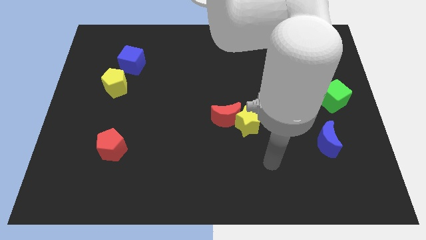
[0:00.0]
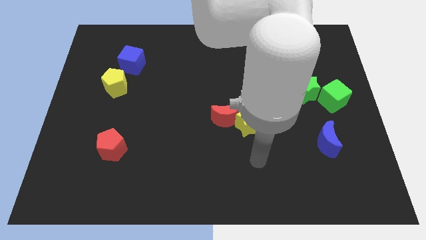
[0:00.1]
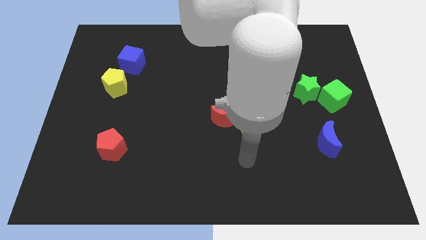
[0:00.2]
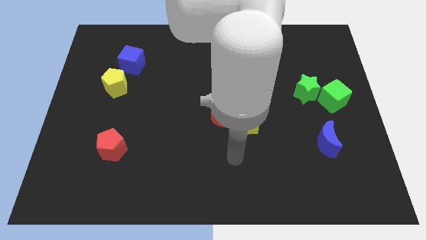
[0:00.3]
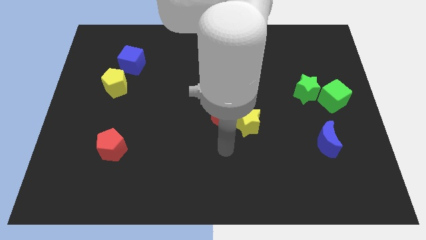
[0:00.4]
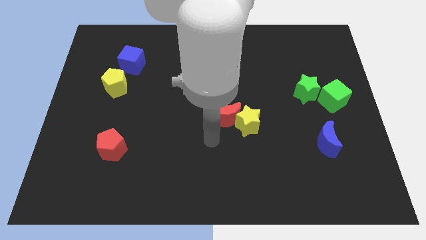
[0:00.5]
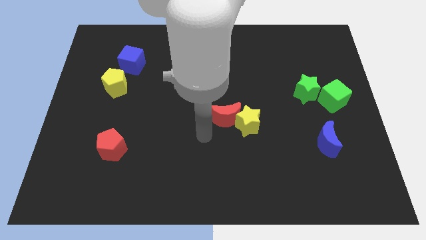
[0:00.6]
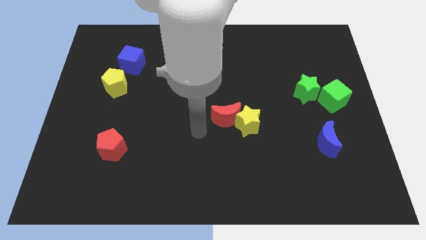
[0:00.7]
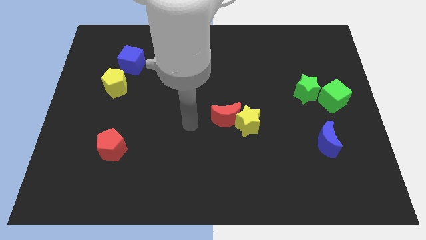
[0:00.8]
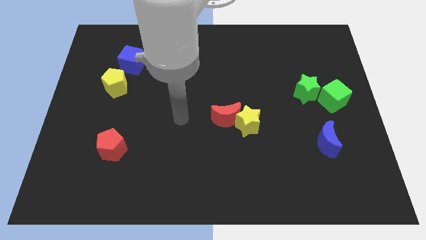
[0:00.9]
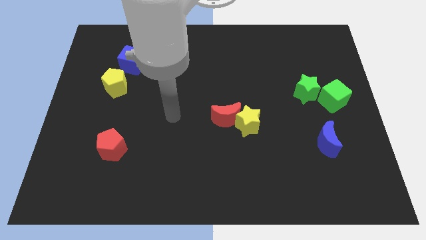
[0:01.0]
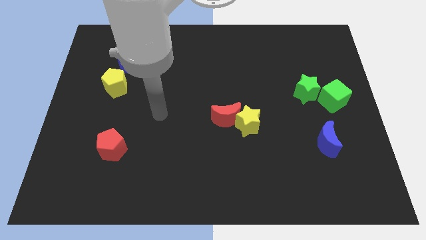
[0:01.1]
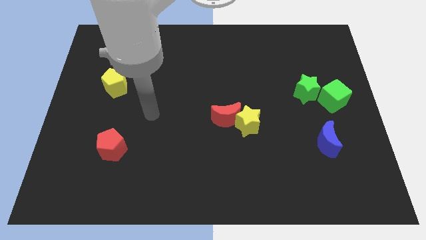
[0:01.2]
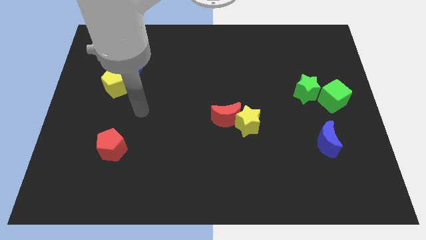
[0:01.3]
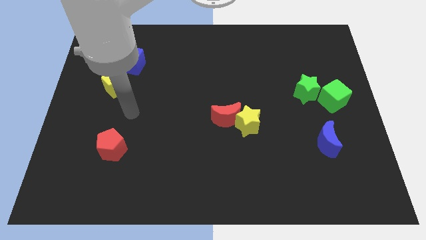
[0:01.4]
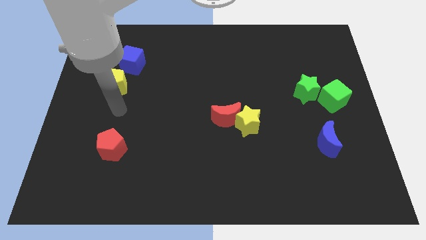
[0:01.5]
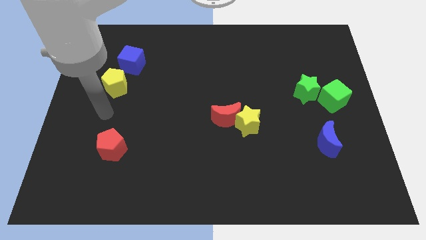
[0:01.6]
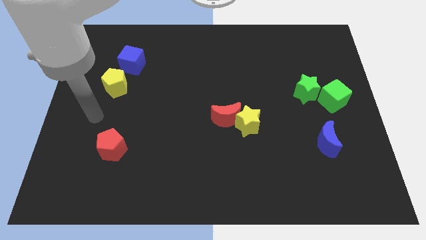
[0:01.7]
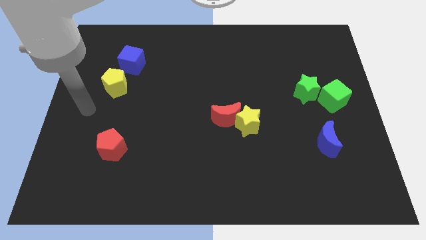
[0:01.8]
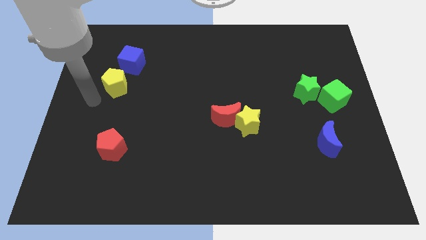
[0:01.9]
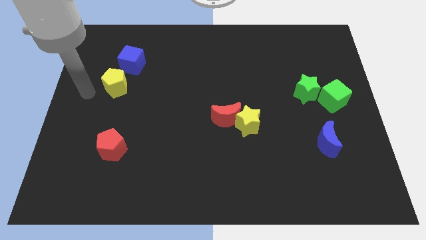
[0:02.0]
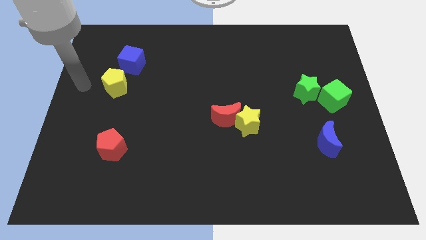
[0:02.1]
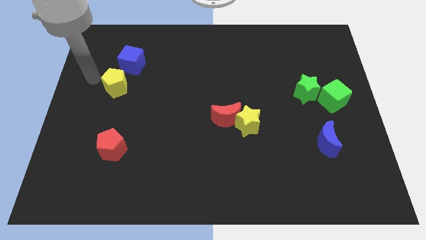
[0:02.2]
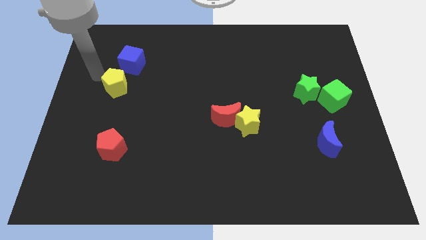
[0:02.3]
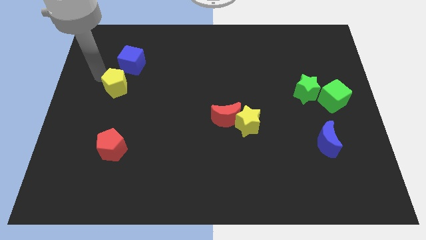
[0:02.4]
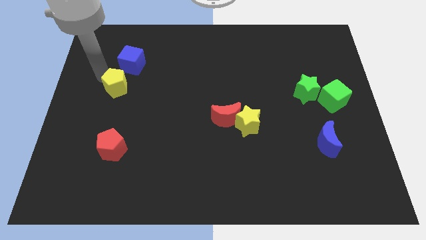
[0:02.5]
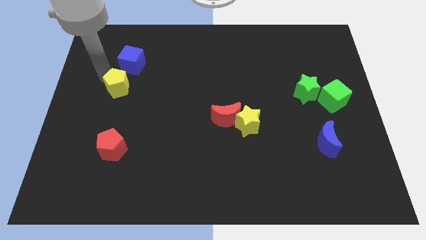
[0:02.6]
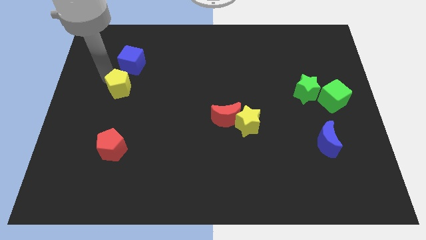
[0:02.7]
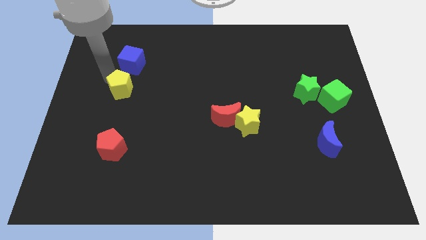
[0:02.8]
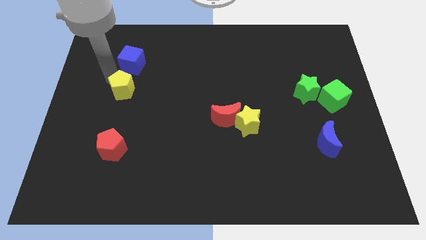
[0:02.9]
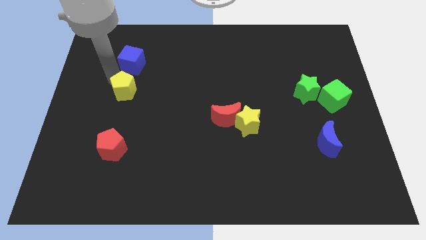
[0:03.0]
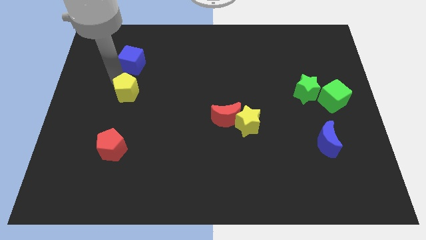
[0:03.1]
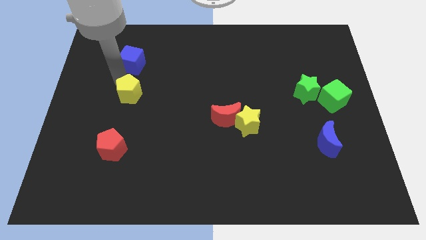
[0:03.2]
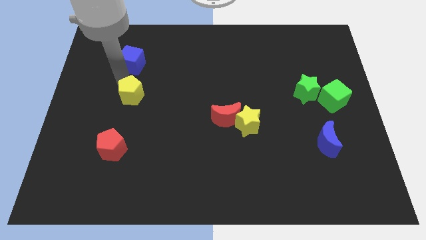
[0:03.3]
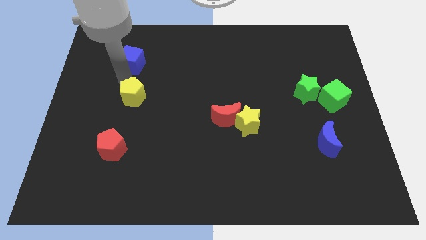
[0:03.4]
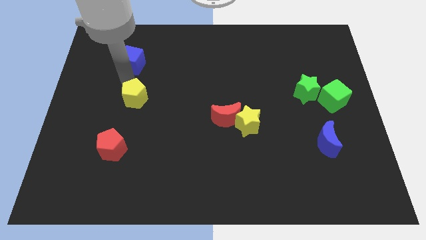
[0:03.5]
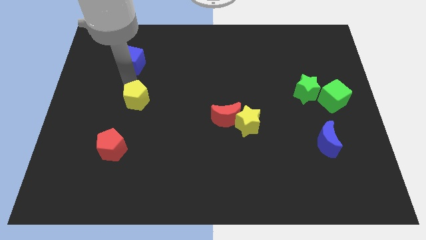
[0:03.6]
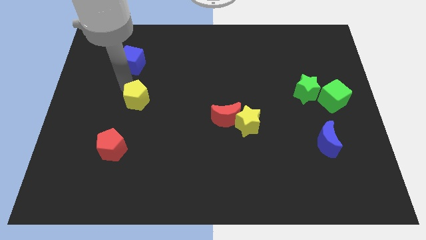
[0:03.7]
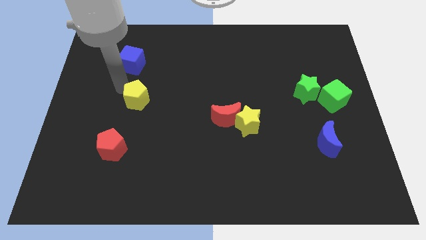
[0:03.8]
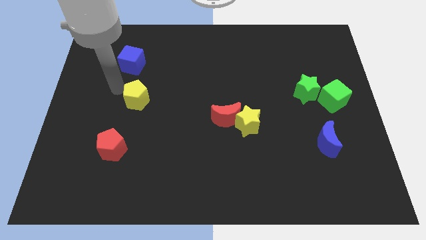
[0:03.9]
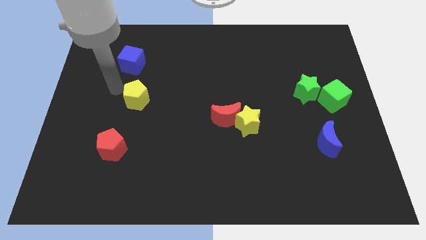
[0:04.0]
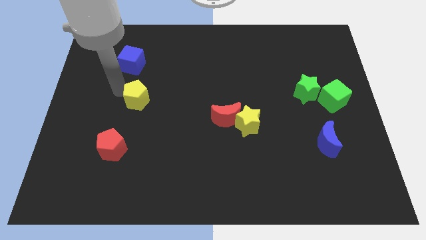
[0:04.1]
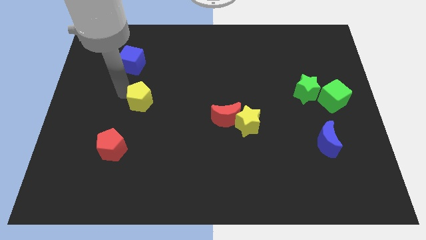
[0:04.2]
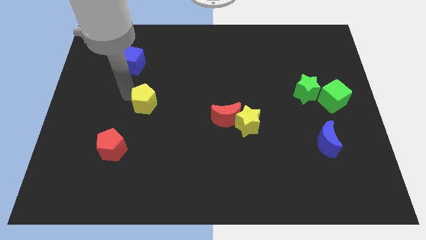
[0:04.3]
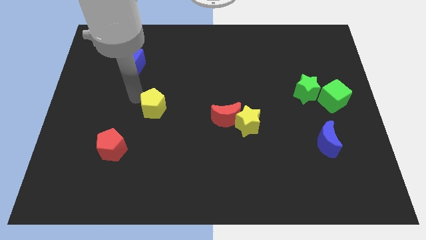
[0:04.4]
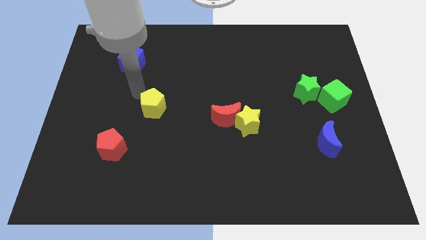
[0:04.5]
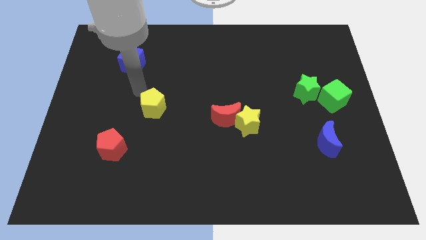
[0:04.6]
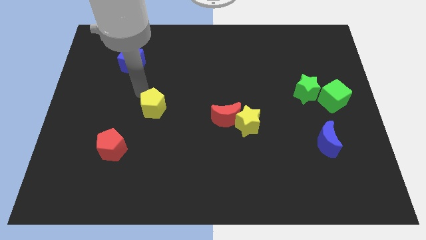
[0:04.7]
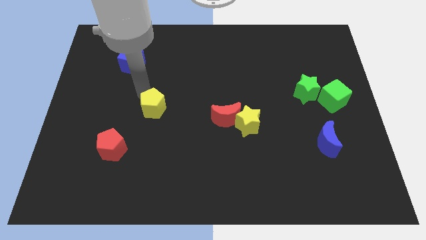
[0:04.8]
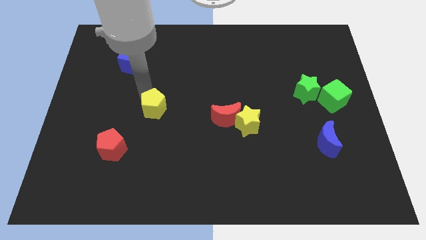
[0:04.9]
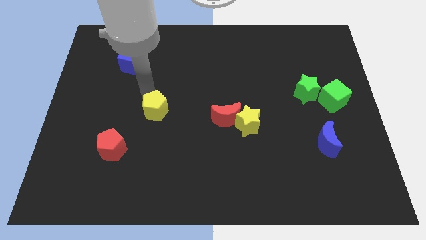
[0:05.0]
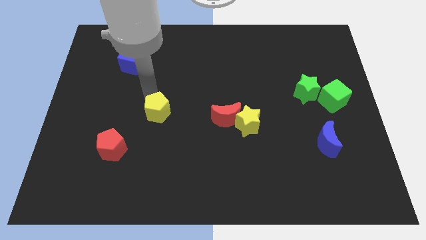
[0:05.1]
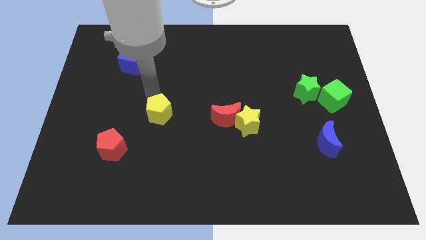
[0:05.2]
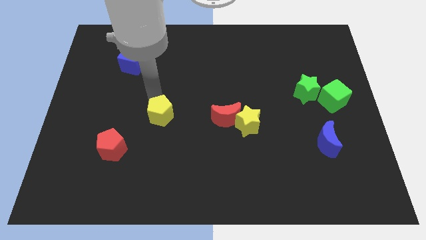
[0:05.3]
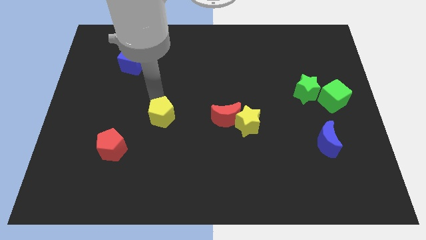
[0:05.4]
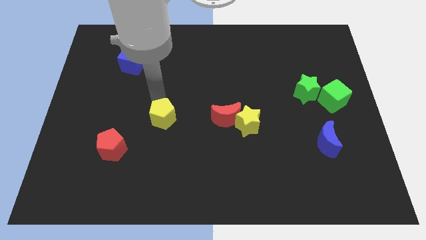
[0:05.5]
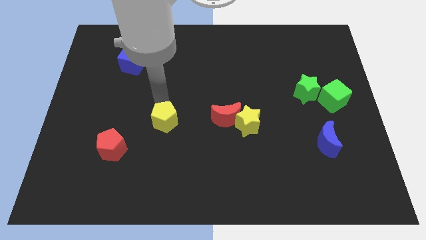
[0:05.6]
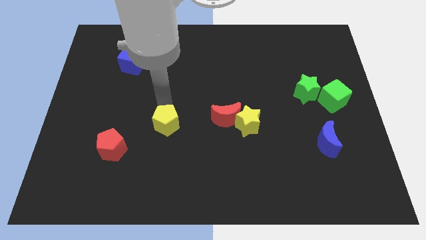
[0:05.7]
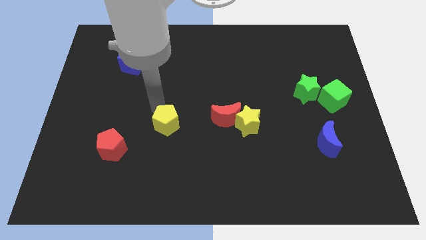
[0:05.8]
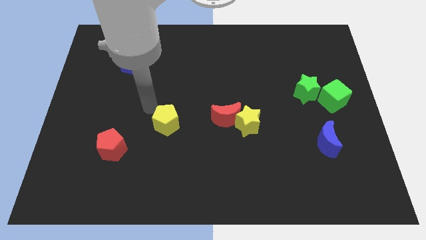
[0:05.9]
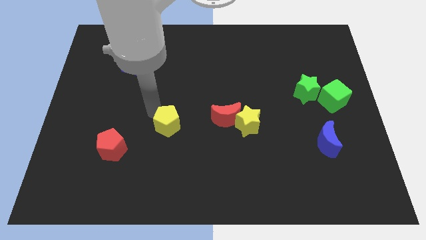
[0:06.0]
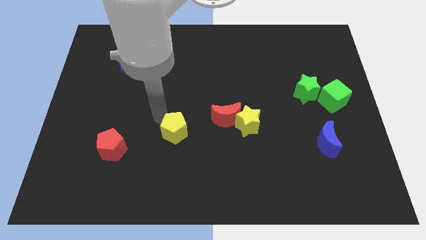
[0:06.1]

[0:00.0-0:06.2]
slide the yellow pentagon downwards and right diagonally

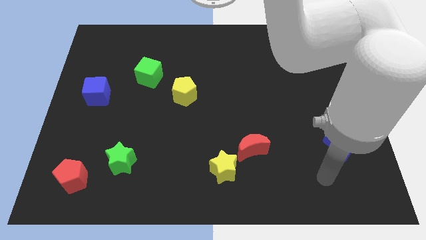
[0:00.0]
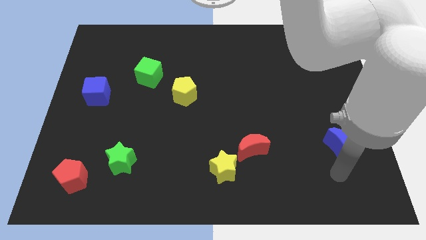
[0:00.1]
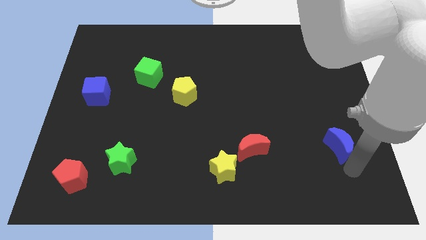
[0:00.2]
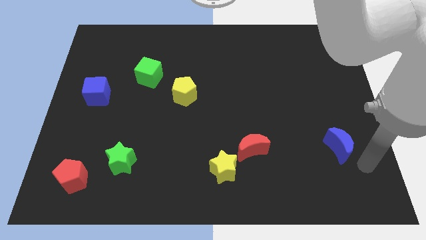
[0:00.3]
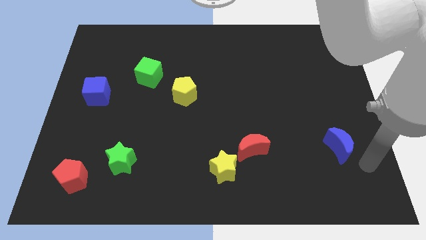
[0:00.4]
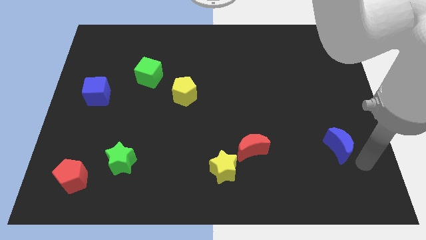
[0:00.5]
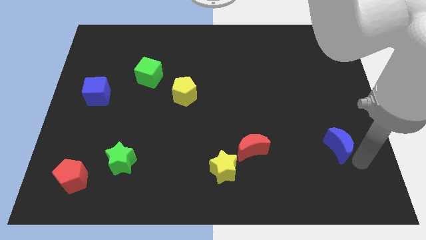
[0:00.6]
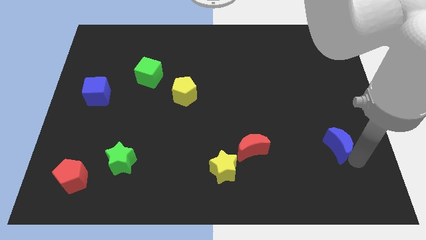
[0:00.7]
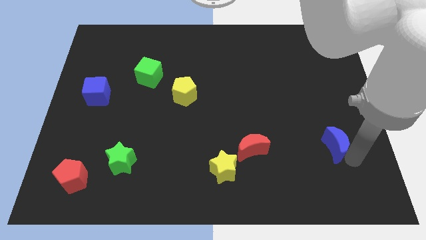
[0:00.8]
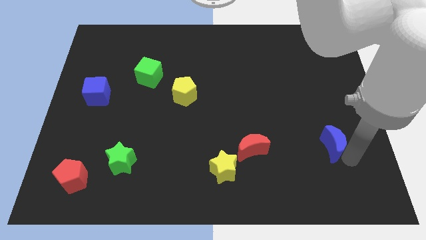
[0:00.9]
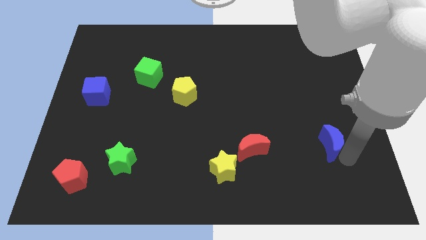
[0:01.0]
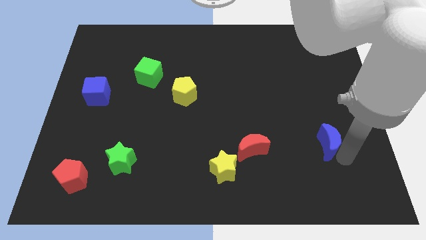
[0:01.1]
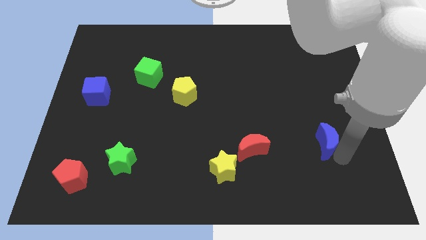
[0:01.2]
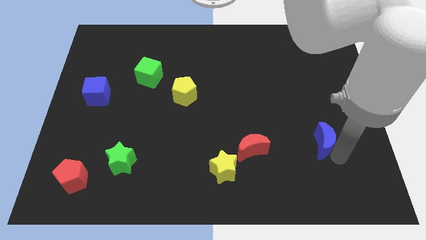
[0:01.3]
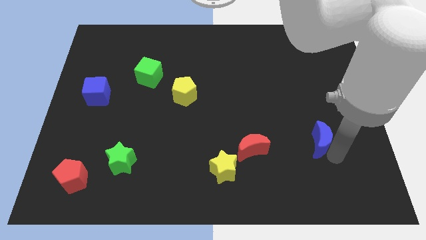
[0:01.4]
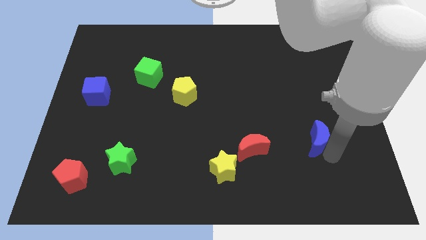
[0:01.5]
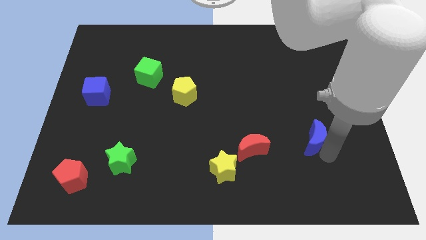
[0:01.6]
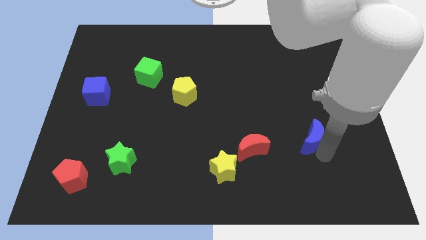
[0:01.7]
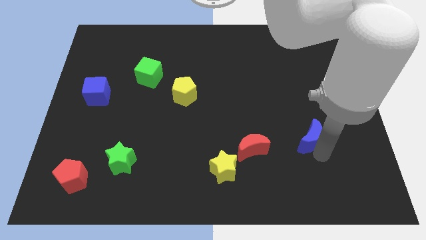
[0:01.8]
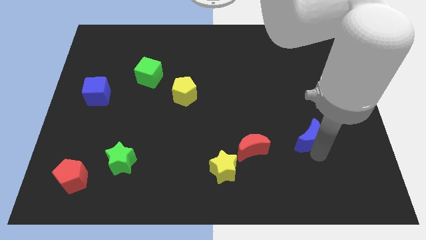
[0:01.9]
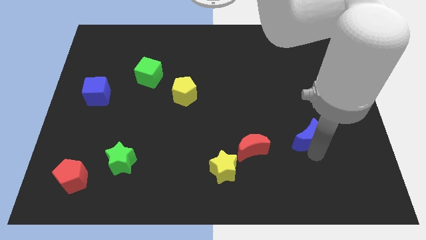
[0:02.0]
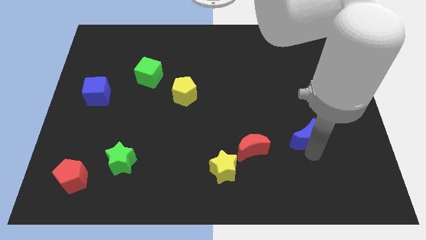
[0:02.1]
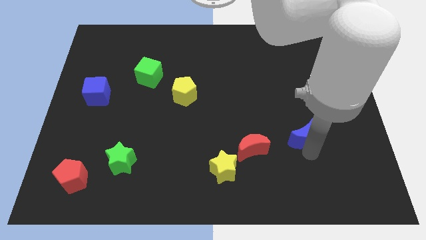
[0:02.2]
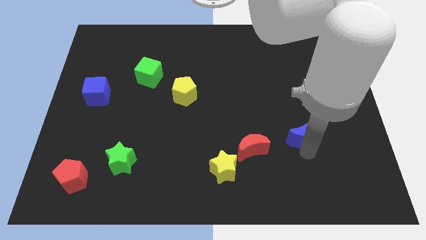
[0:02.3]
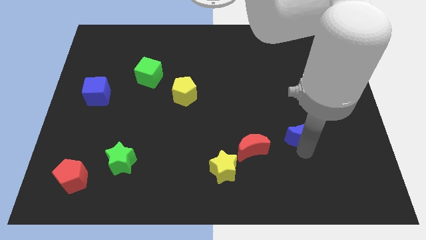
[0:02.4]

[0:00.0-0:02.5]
move the blue moon diagonally up and to the left slightly
